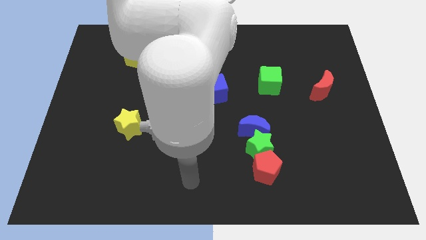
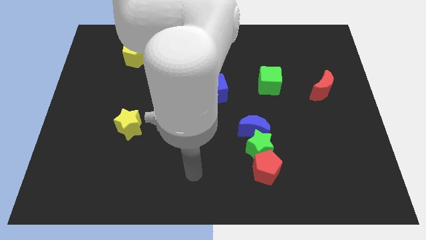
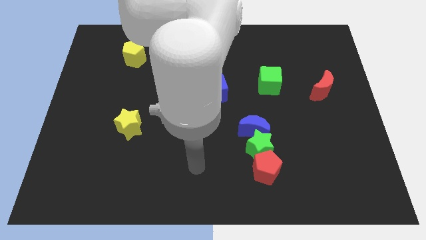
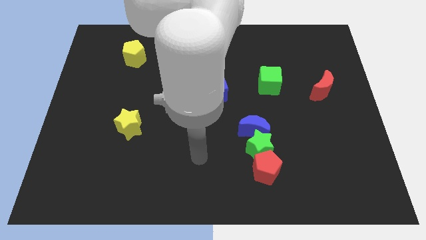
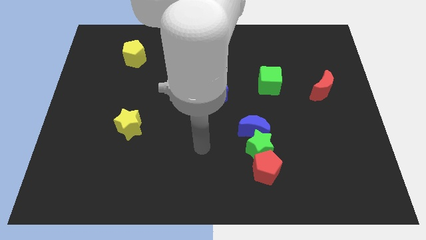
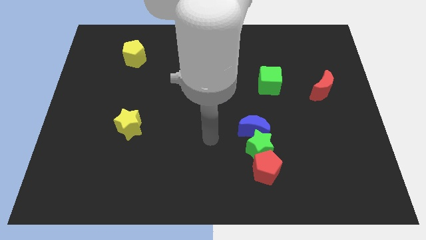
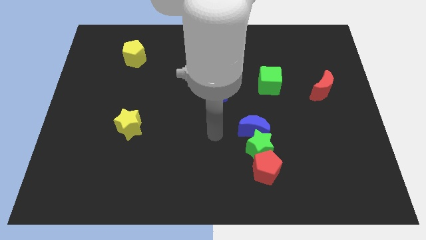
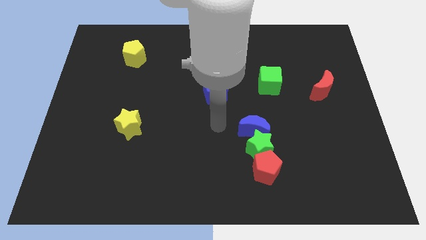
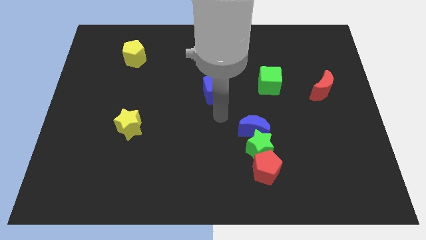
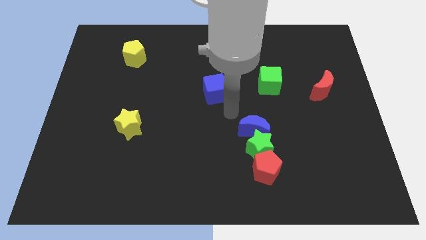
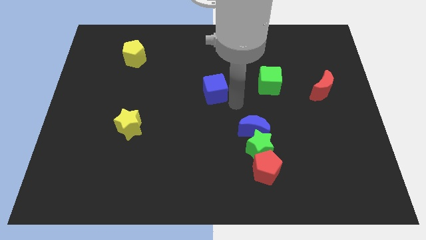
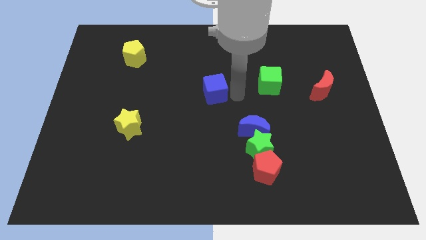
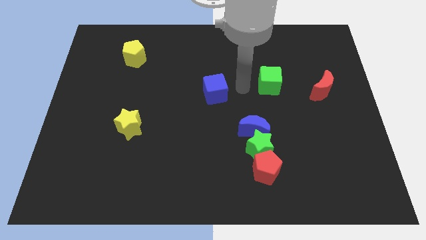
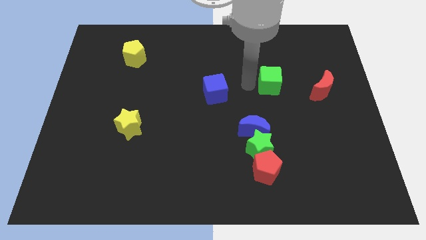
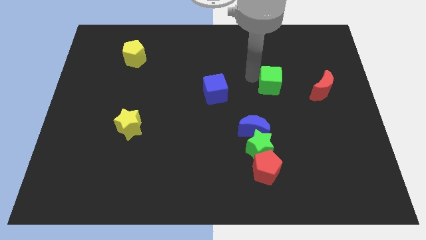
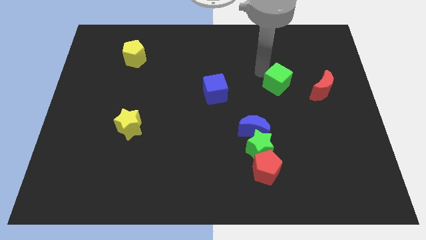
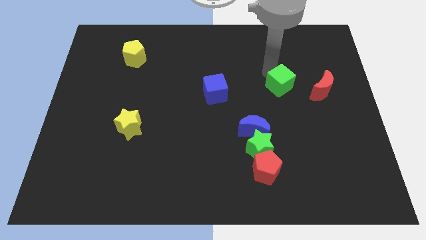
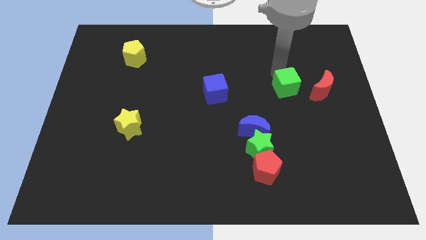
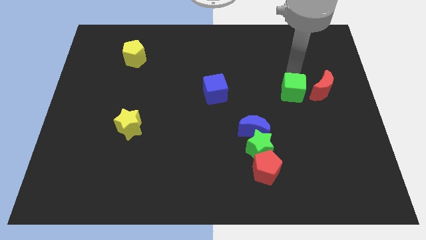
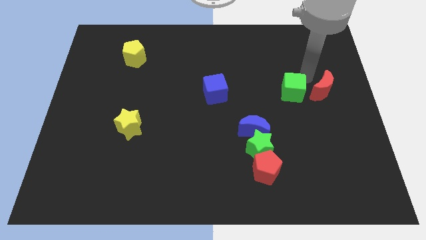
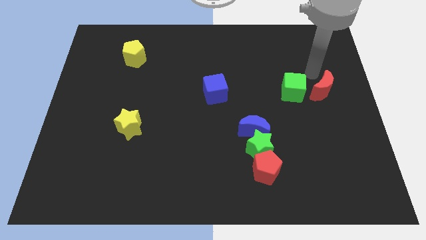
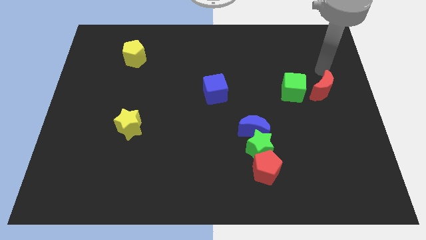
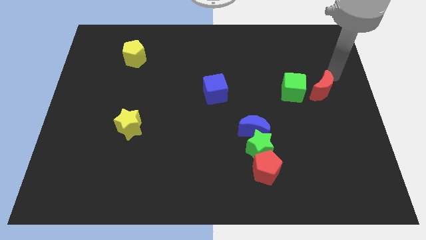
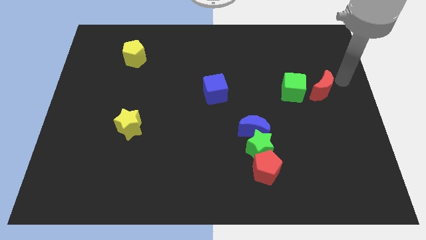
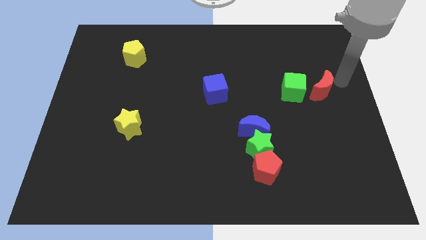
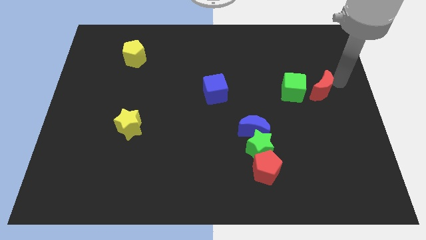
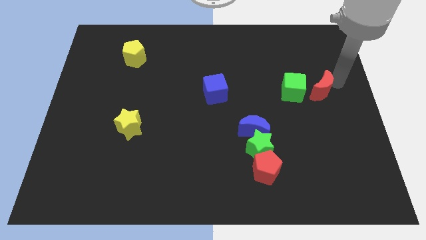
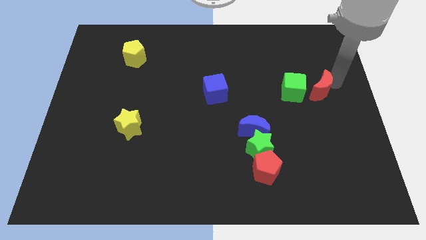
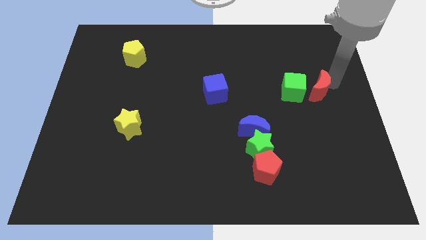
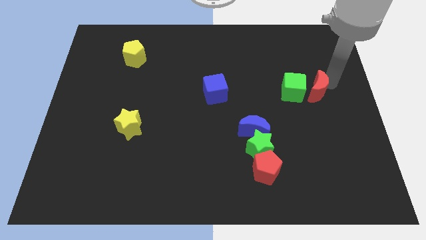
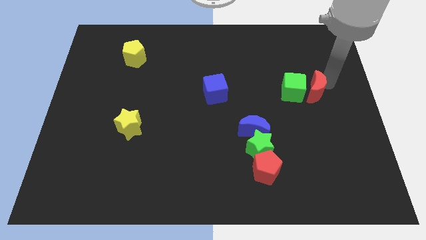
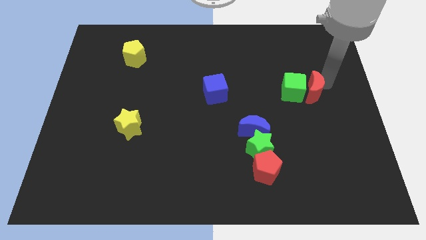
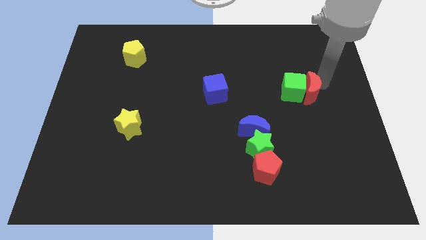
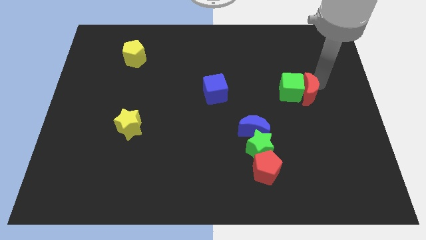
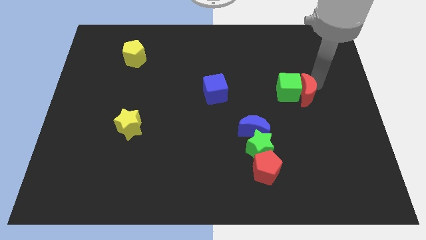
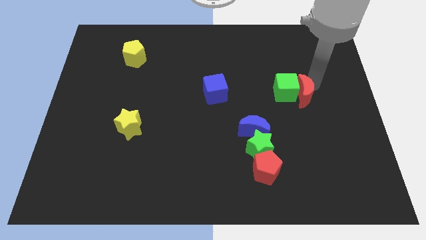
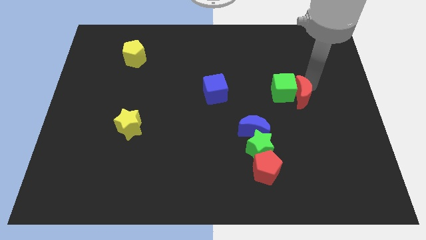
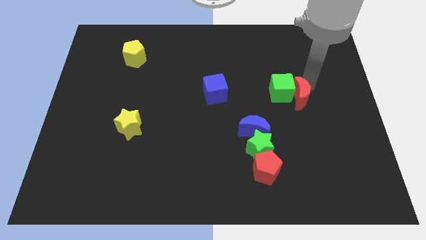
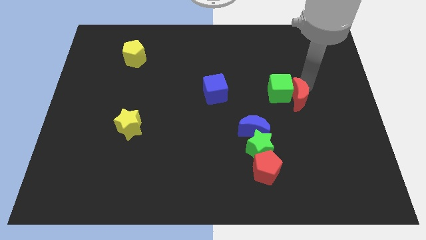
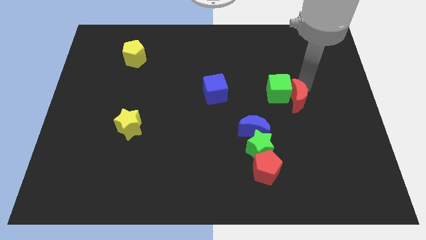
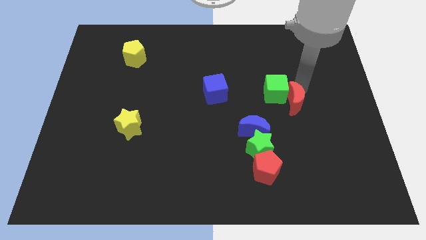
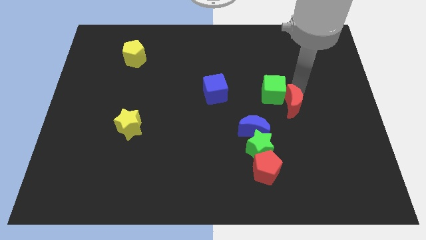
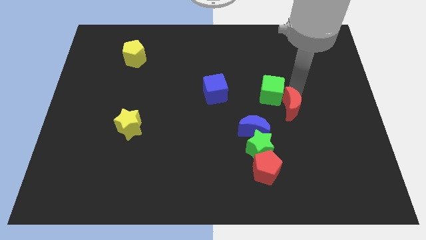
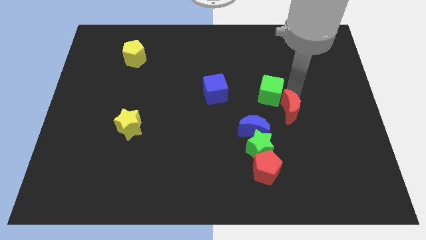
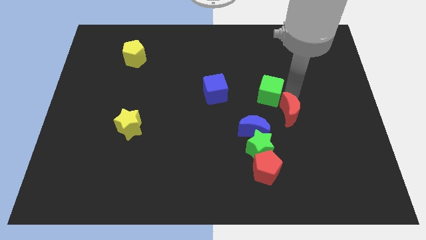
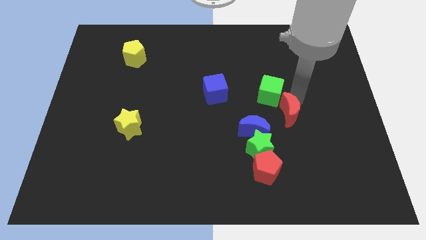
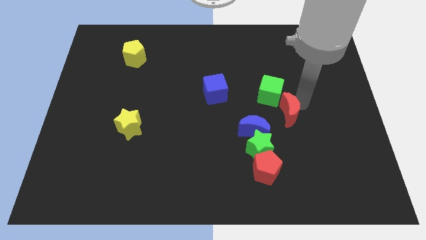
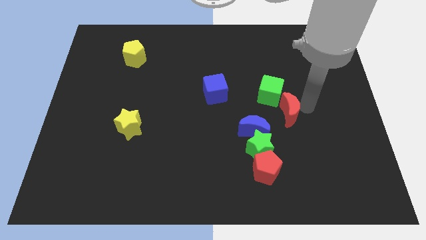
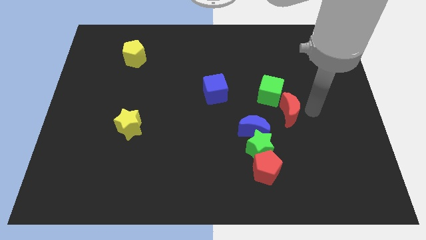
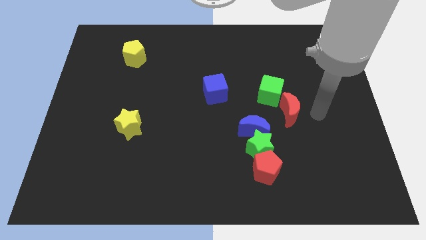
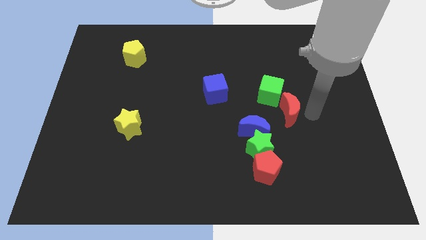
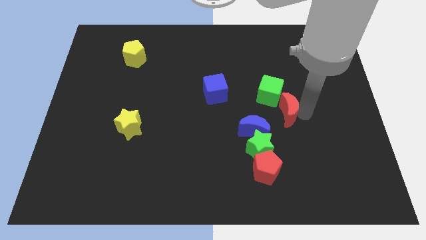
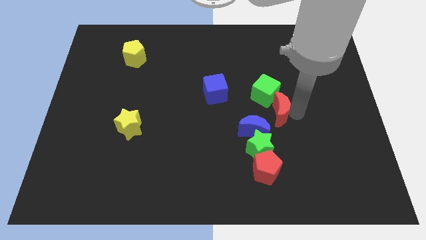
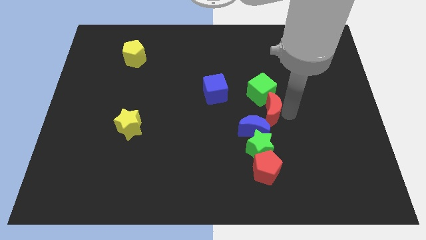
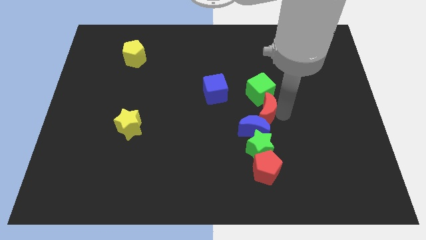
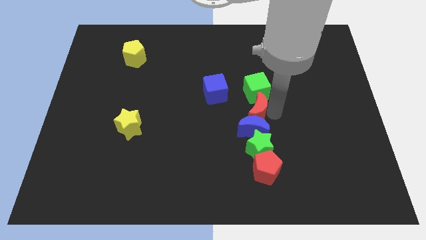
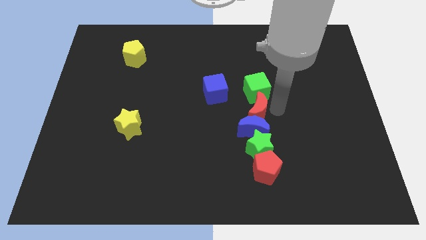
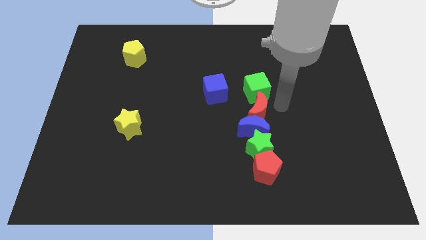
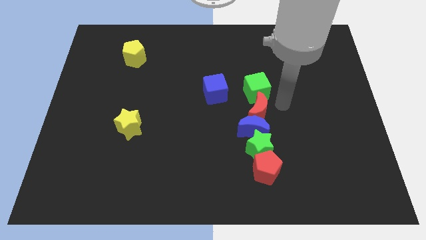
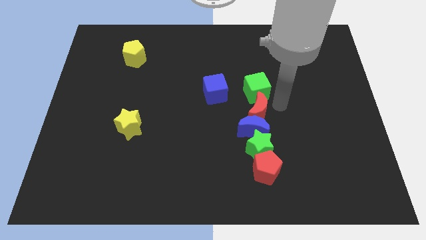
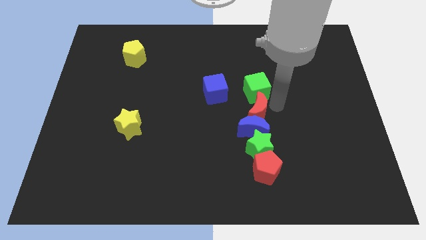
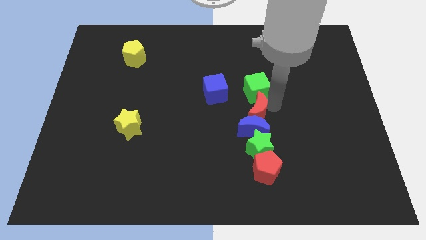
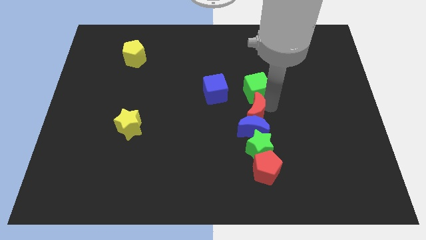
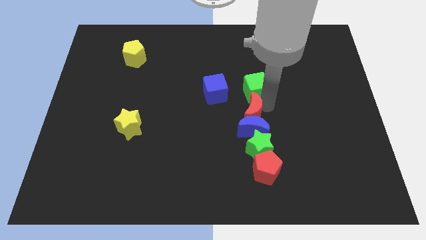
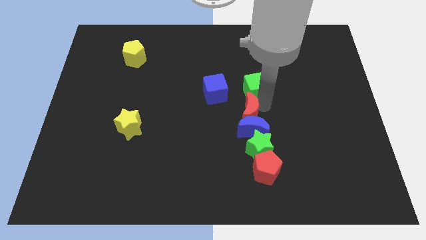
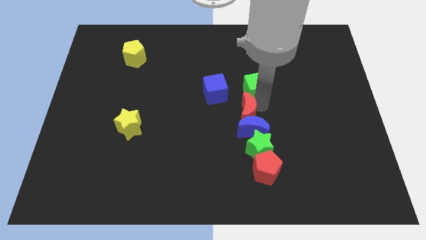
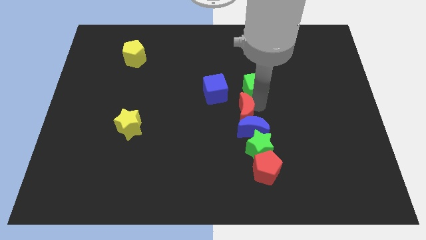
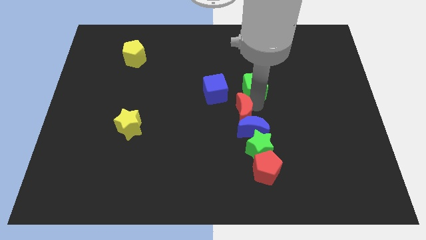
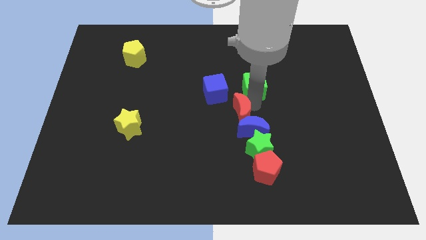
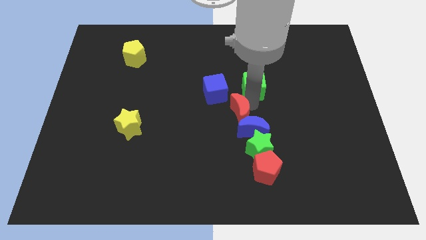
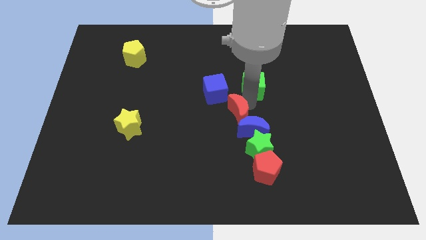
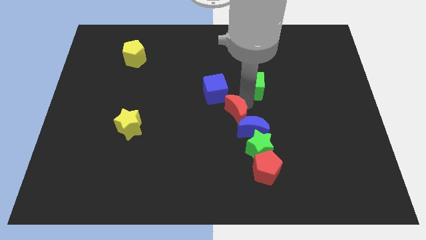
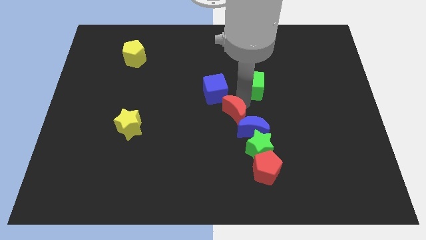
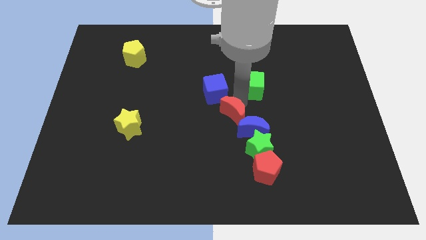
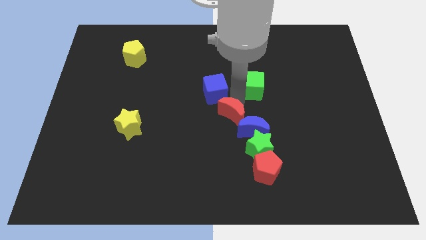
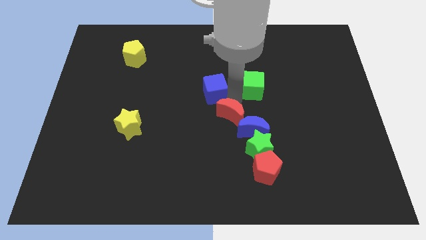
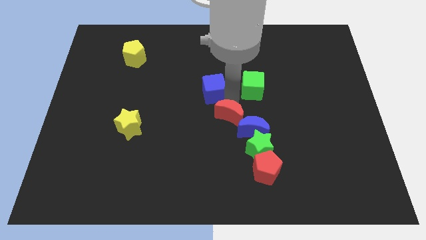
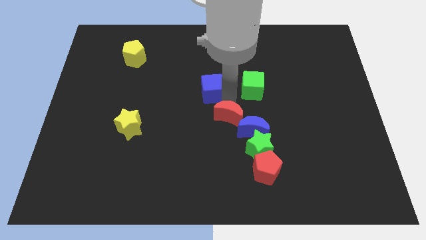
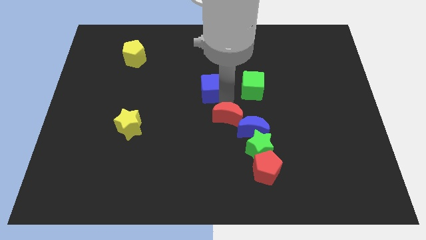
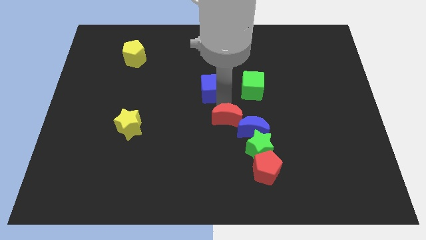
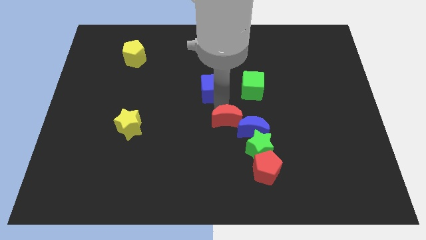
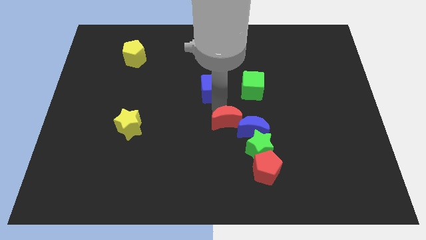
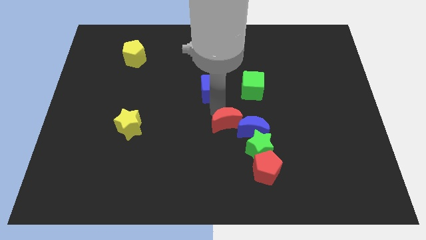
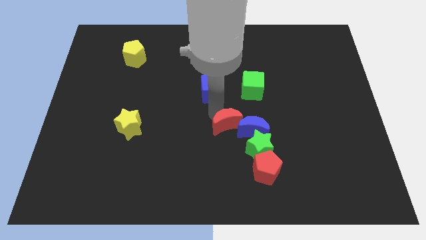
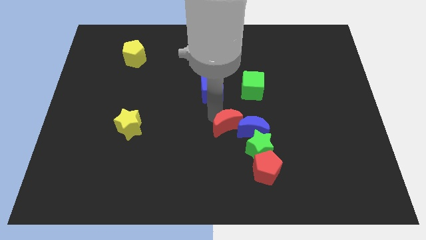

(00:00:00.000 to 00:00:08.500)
move the red moon diagonally down and to the left
